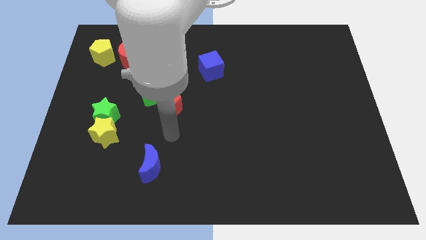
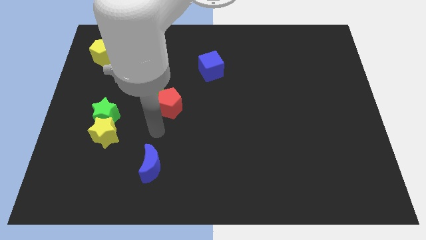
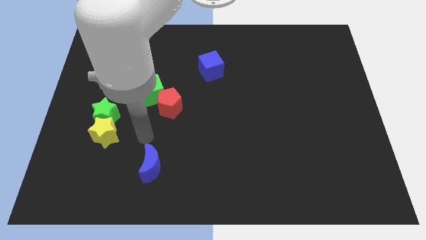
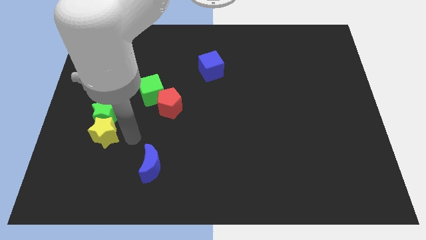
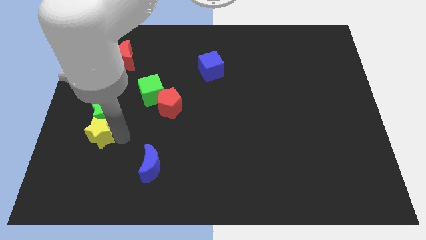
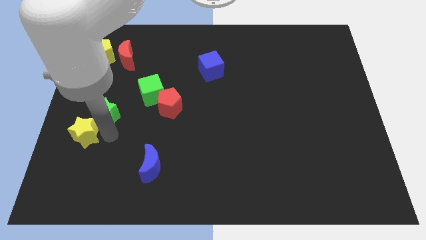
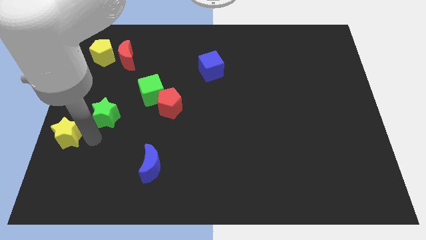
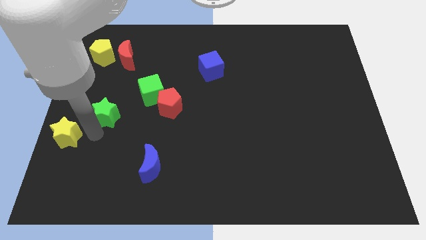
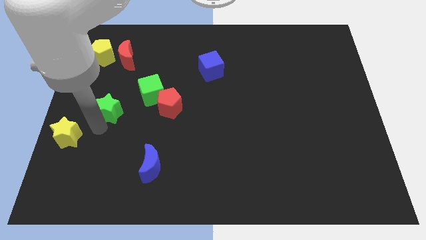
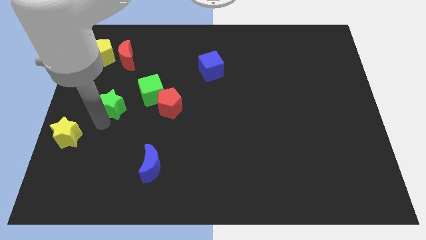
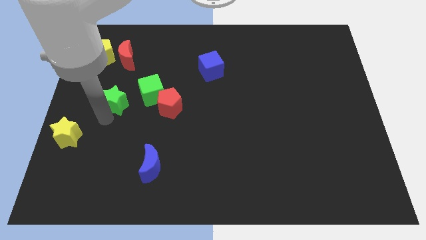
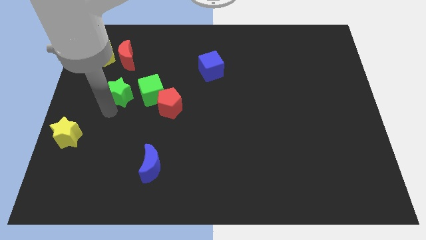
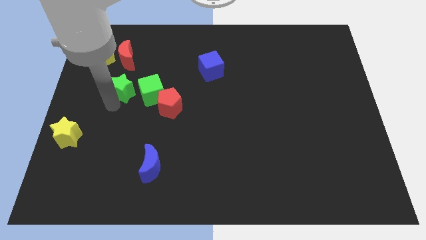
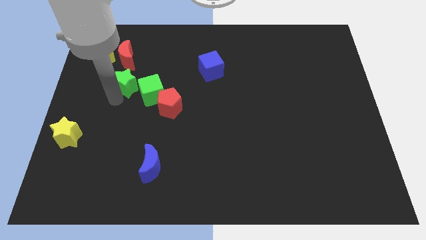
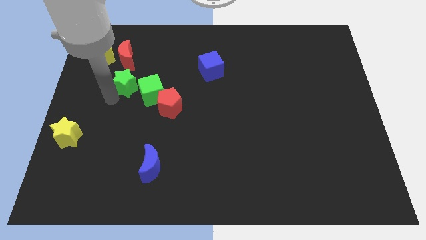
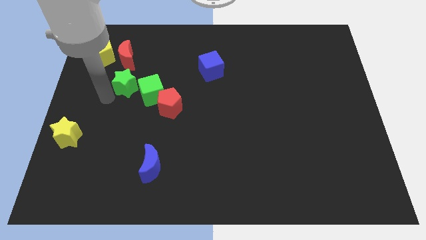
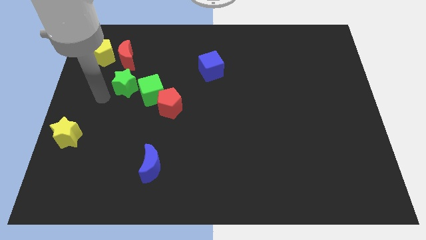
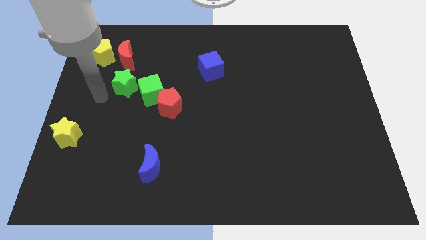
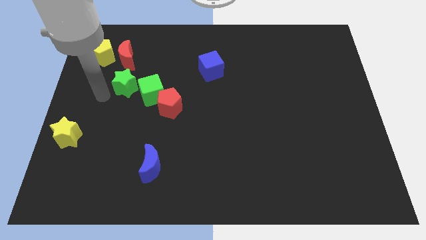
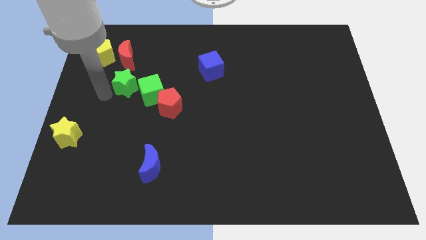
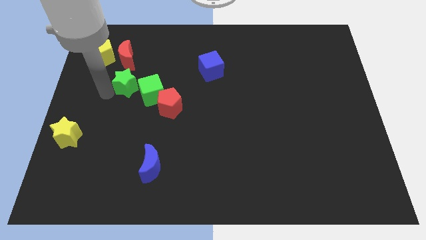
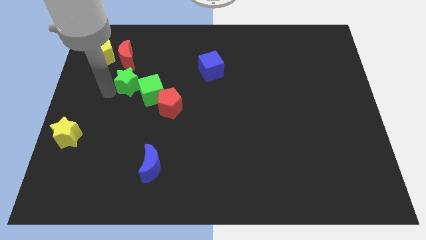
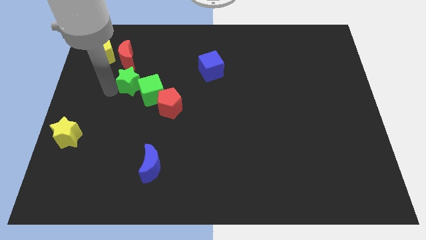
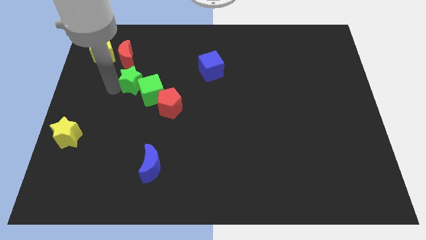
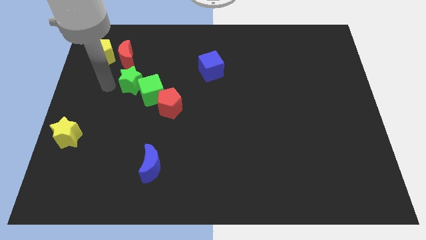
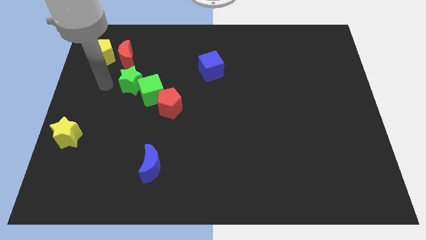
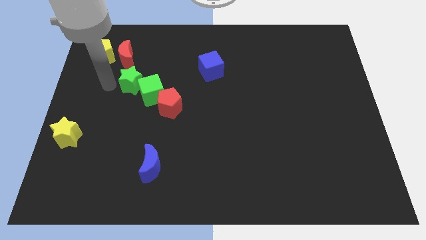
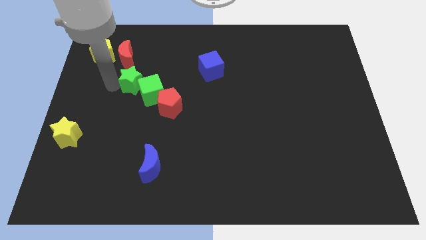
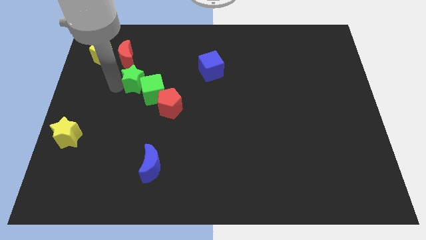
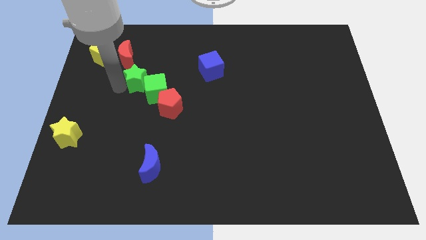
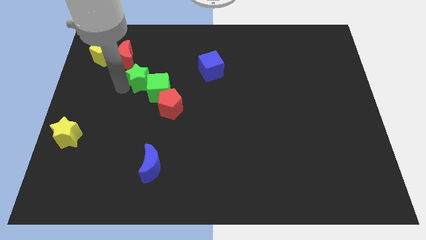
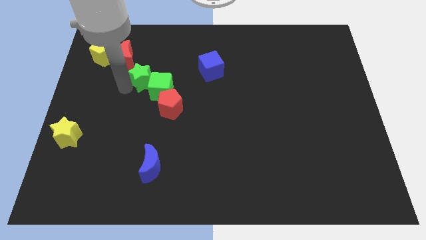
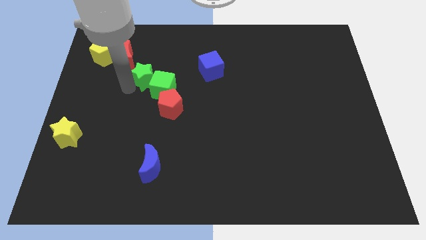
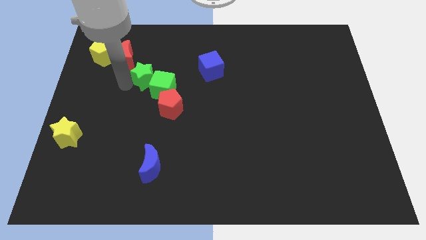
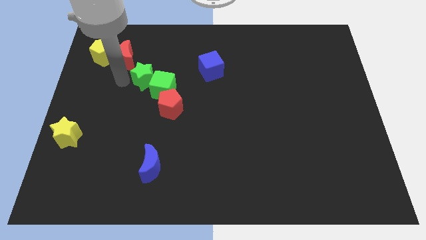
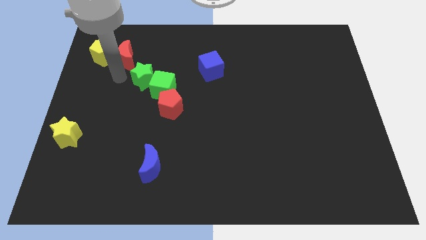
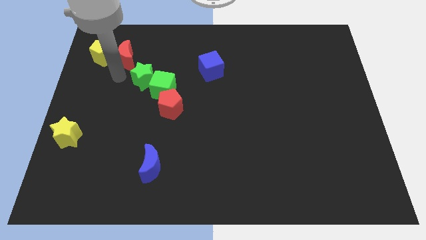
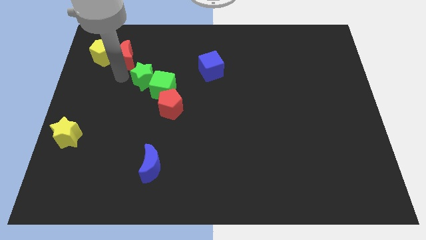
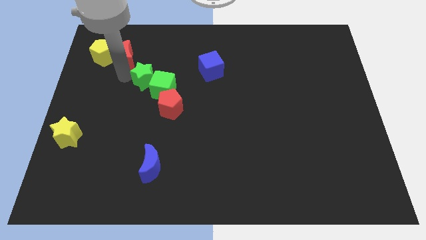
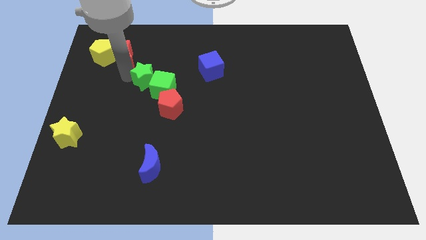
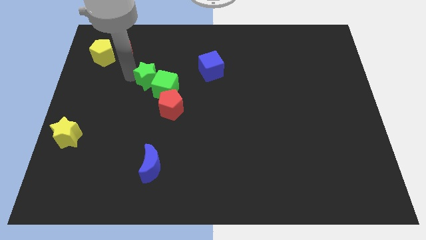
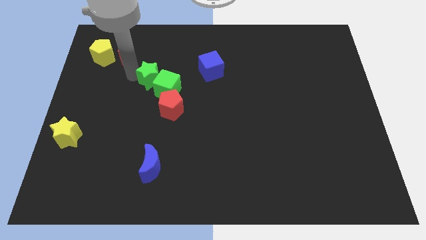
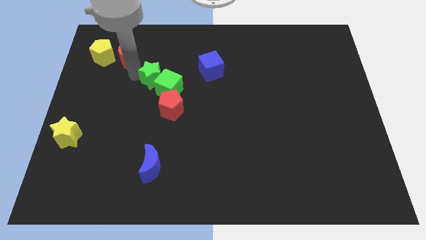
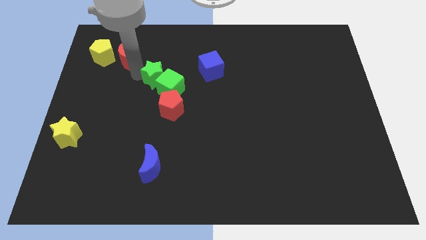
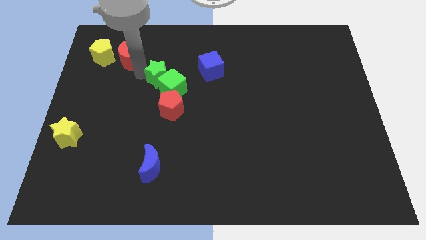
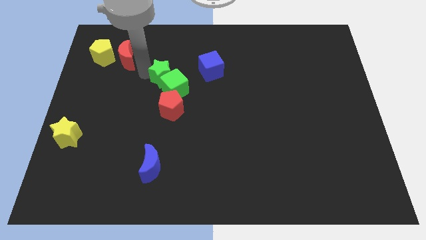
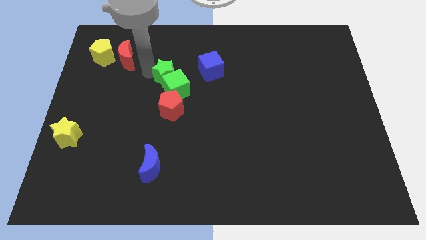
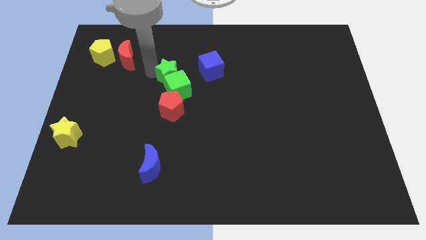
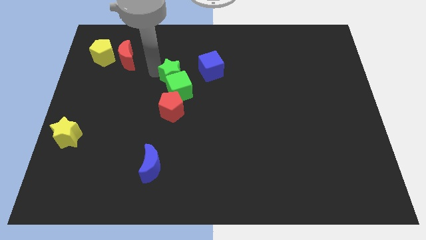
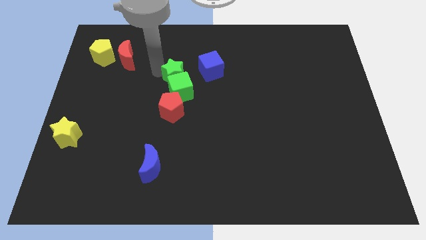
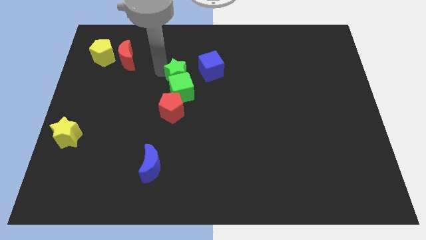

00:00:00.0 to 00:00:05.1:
slide the green star to the bottom left of the blue cube

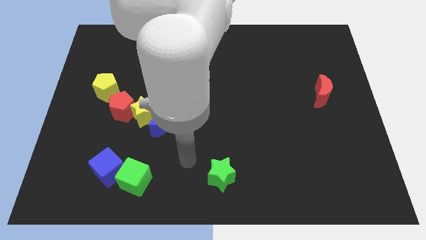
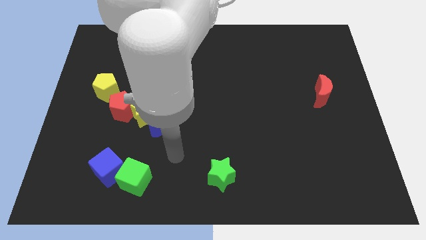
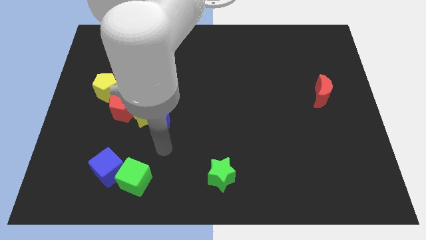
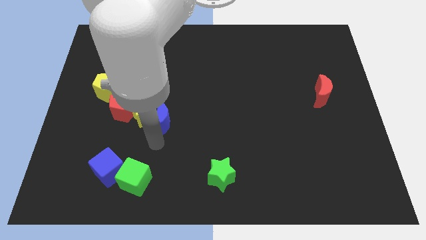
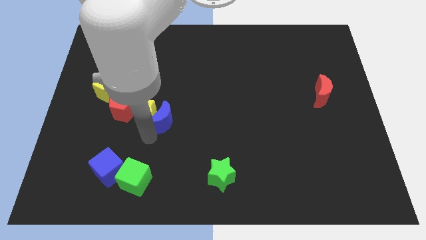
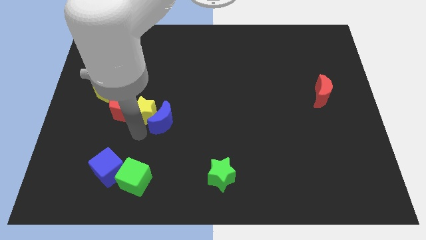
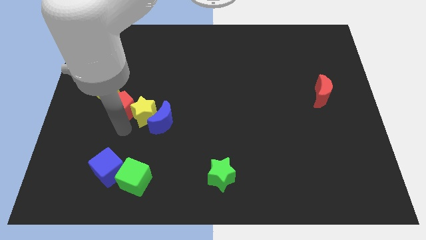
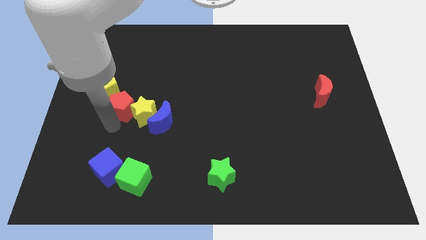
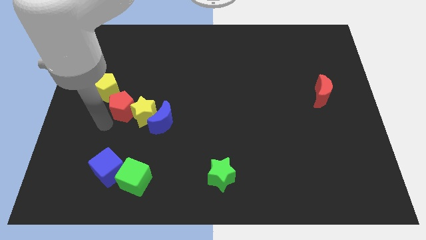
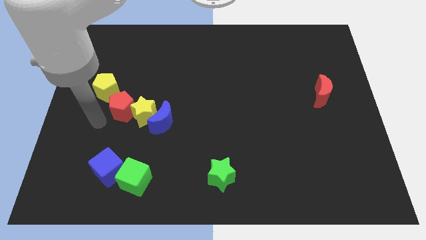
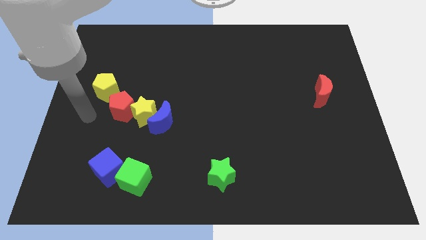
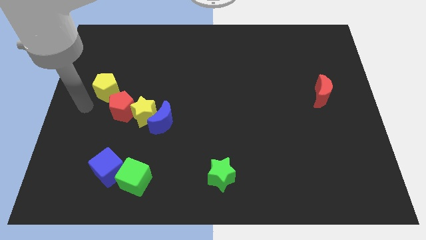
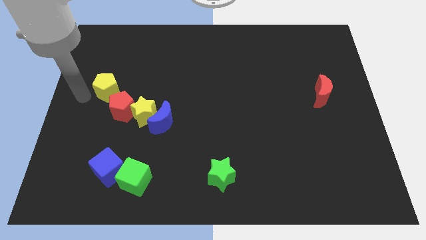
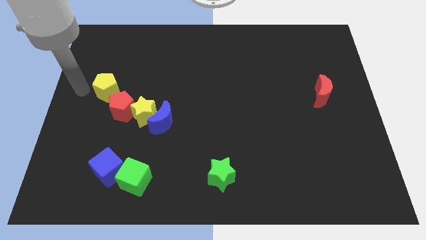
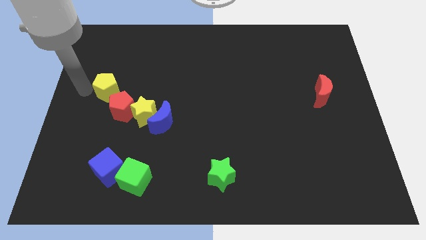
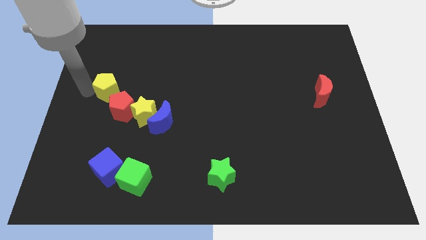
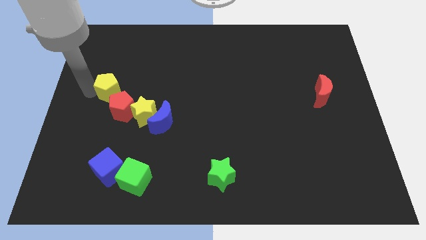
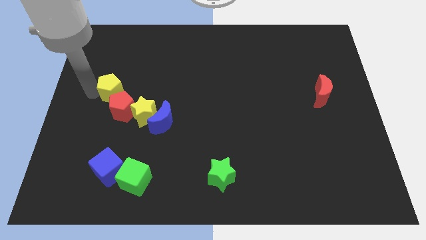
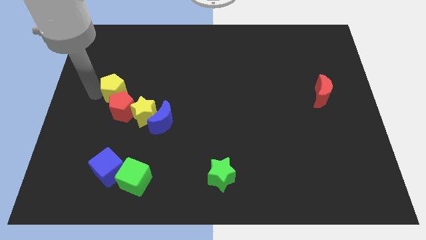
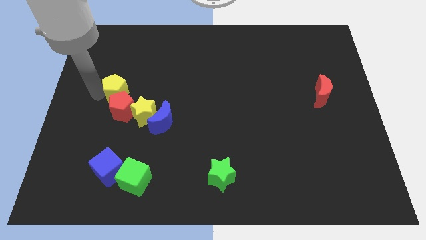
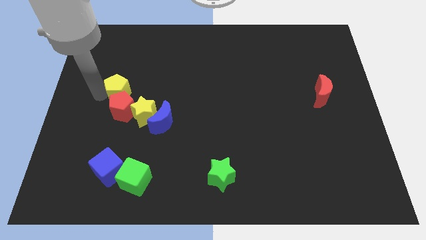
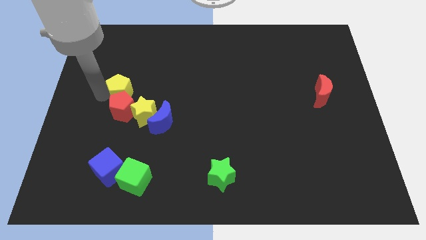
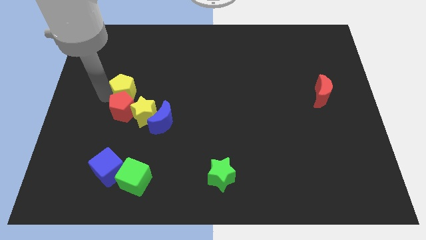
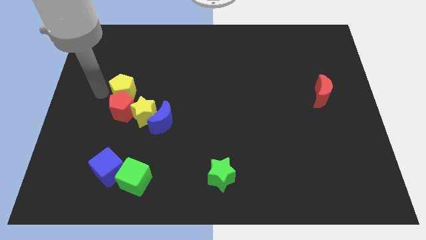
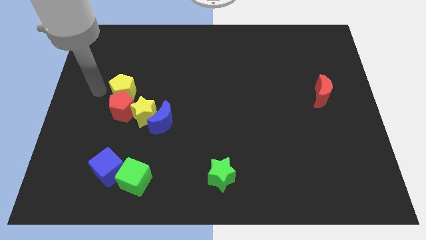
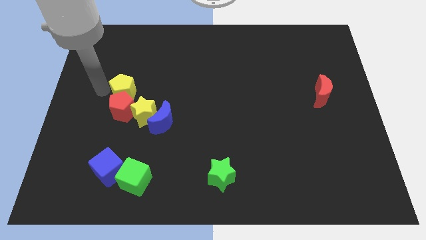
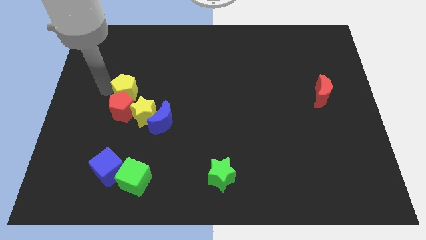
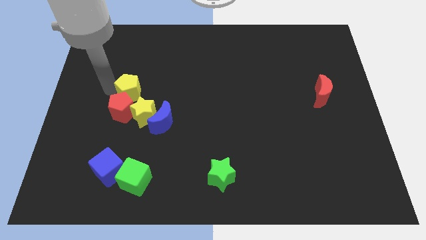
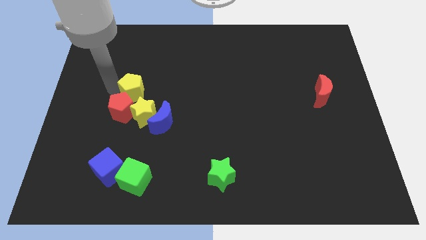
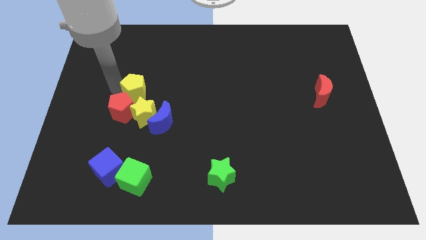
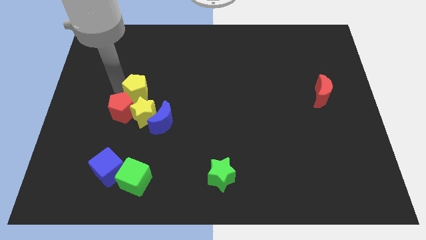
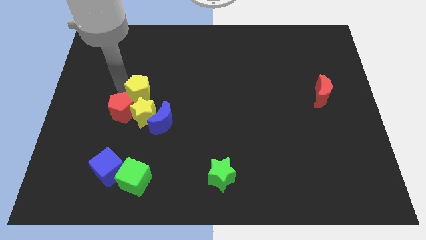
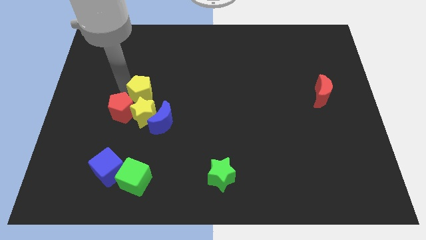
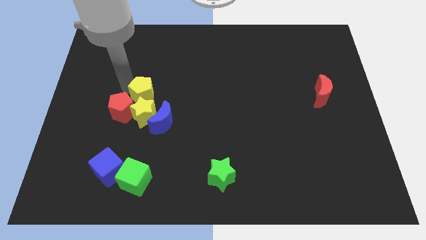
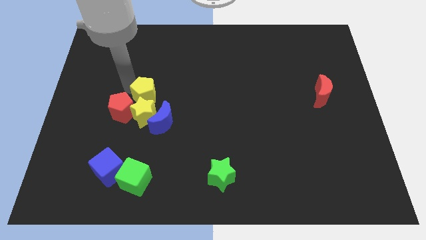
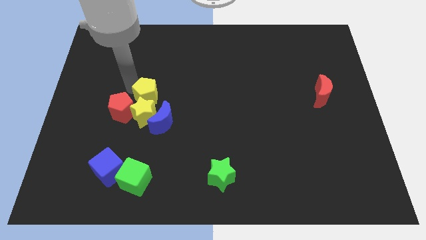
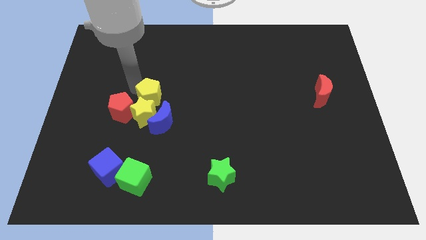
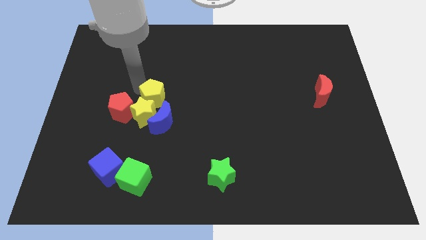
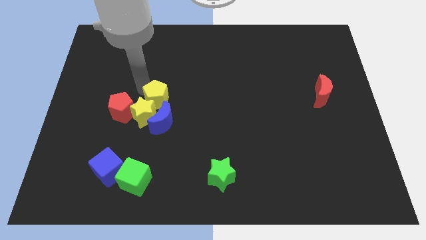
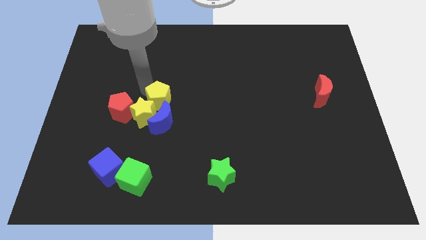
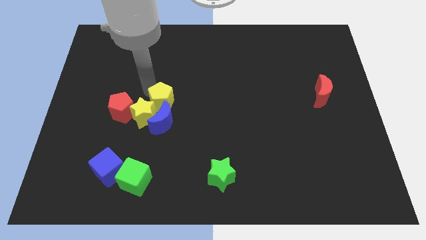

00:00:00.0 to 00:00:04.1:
slide the yellow pentagon to the top right side of the blue moon
